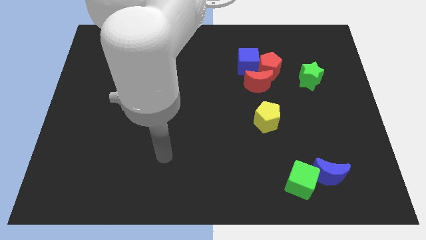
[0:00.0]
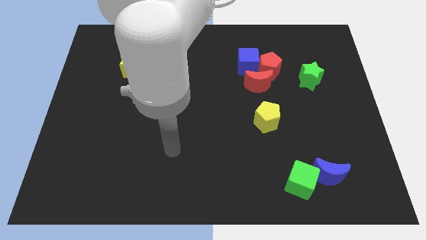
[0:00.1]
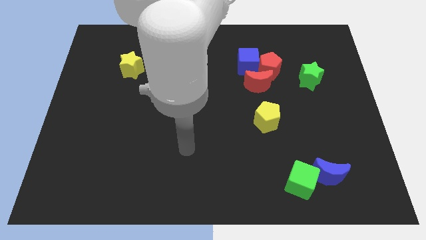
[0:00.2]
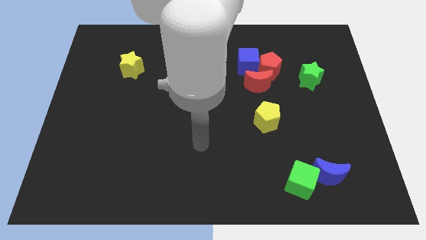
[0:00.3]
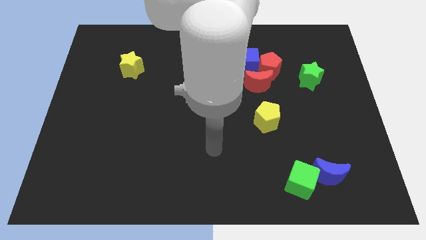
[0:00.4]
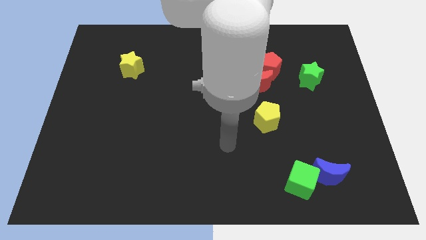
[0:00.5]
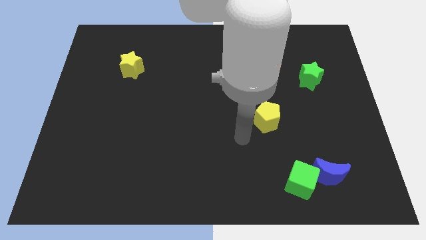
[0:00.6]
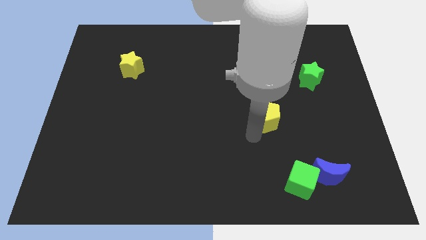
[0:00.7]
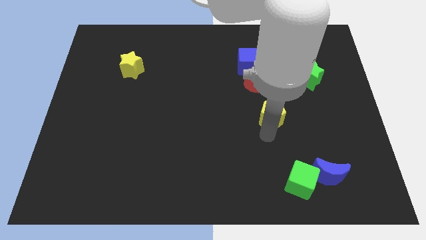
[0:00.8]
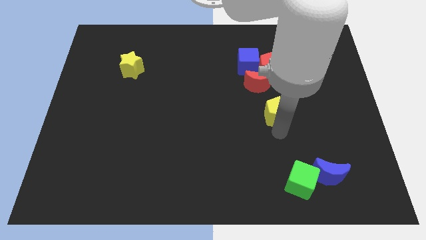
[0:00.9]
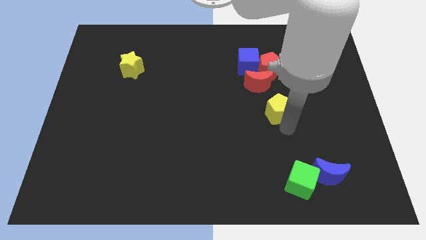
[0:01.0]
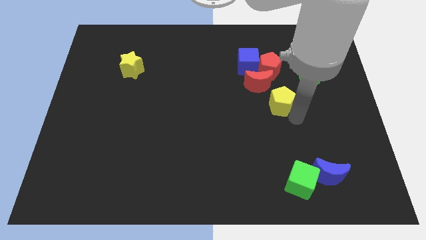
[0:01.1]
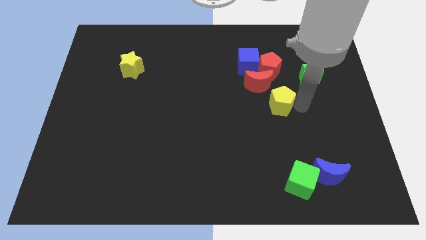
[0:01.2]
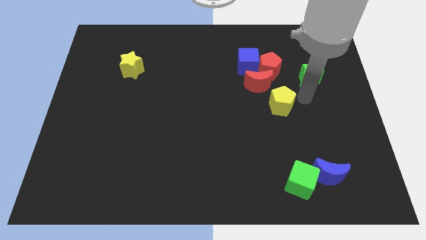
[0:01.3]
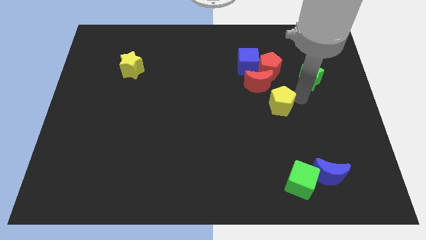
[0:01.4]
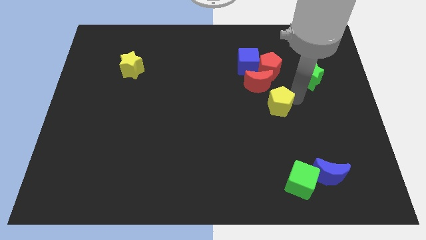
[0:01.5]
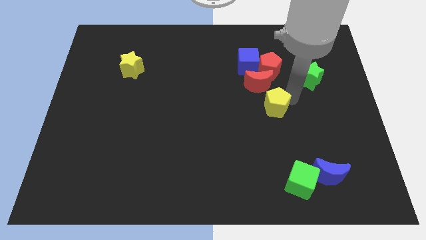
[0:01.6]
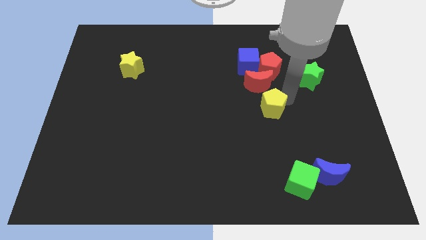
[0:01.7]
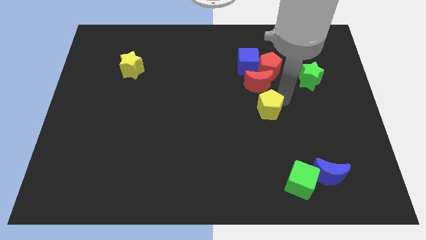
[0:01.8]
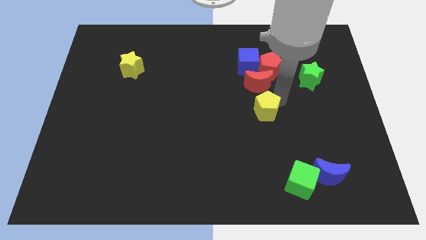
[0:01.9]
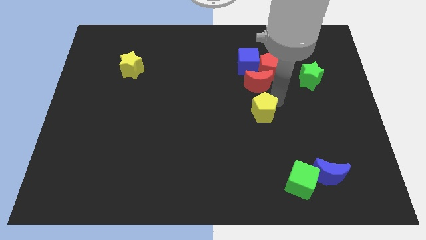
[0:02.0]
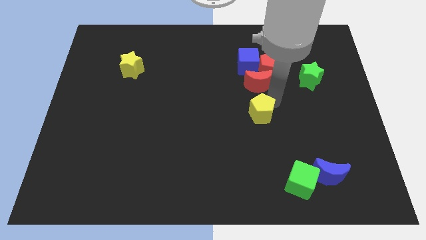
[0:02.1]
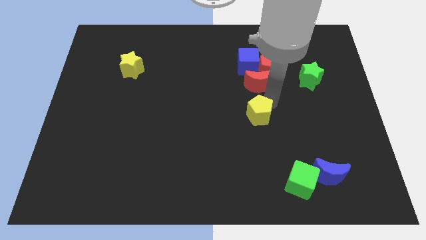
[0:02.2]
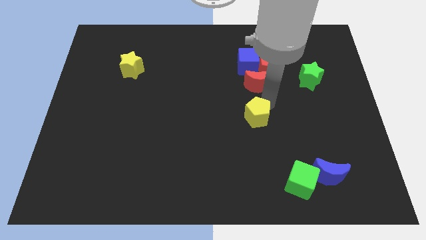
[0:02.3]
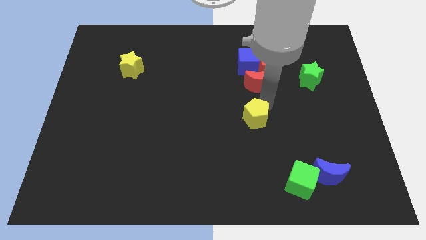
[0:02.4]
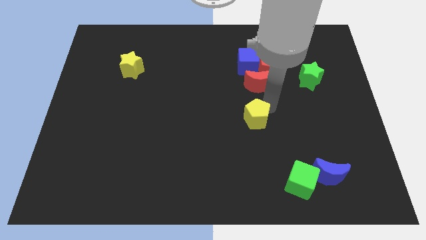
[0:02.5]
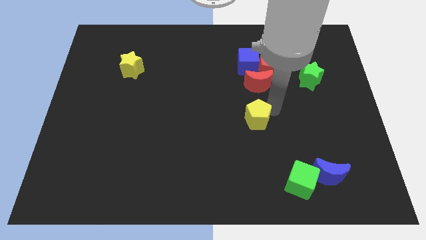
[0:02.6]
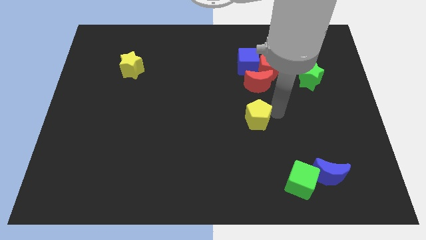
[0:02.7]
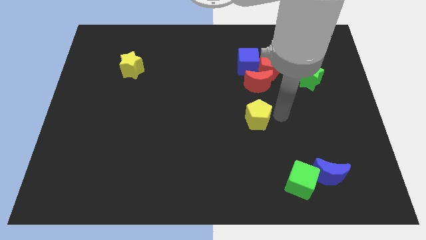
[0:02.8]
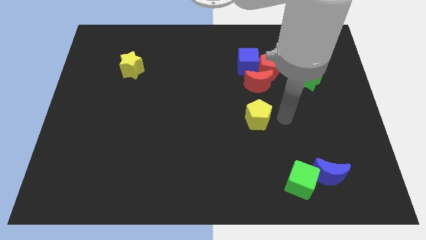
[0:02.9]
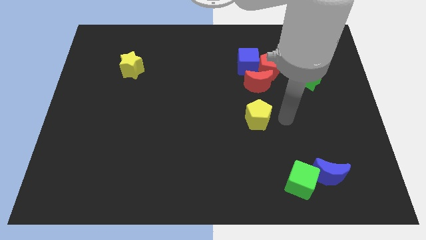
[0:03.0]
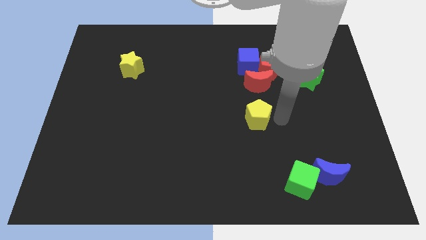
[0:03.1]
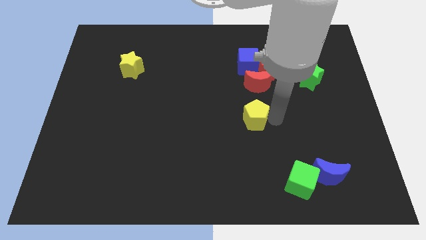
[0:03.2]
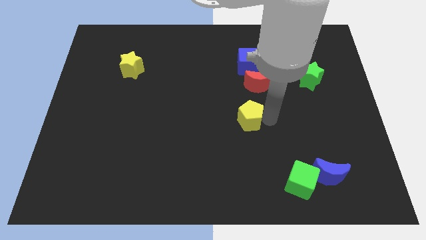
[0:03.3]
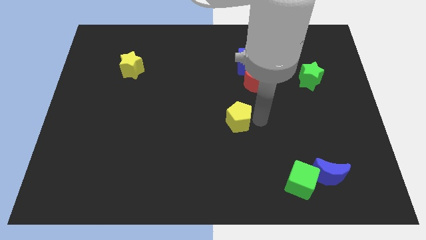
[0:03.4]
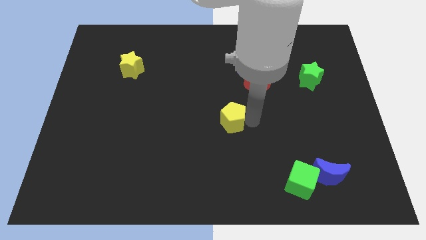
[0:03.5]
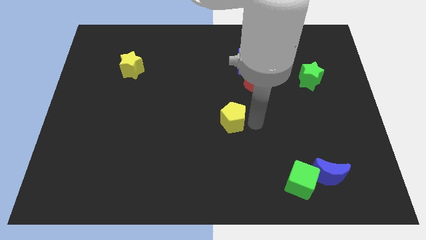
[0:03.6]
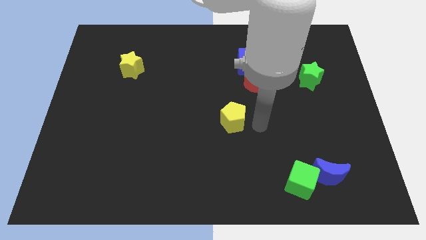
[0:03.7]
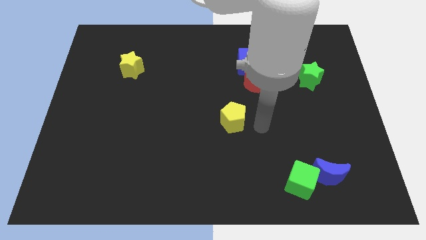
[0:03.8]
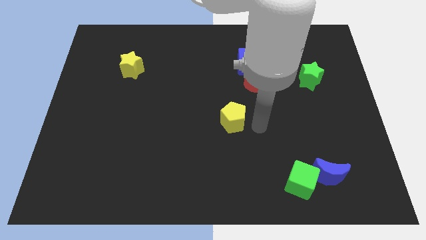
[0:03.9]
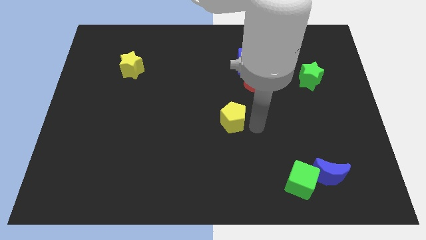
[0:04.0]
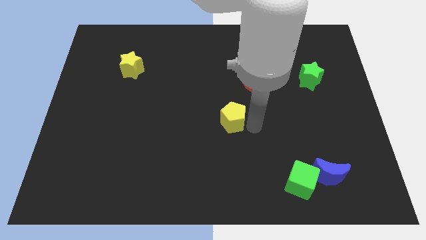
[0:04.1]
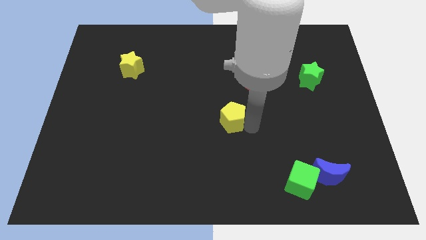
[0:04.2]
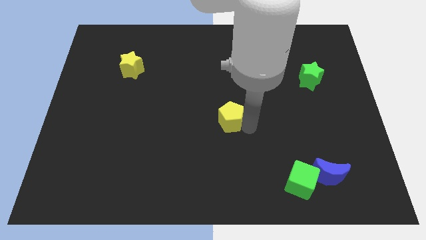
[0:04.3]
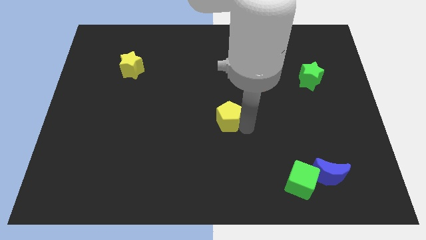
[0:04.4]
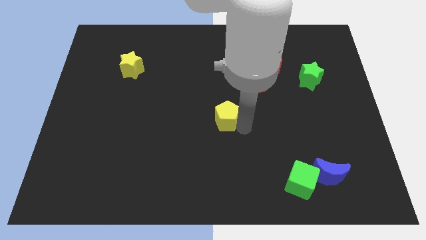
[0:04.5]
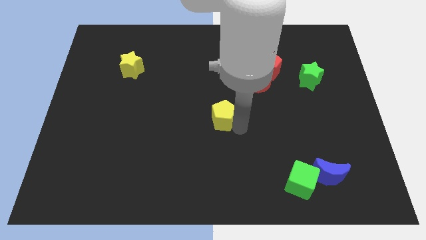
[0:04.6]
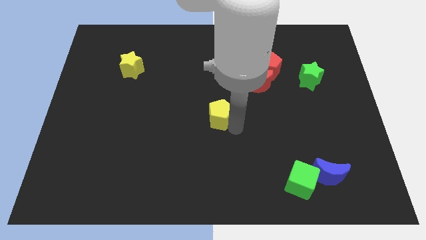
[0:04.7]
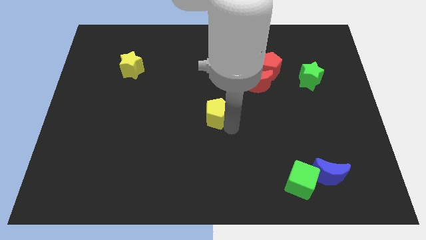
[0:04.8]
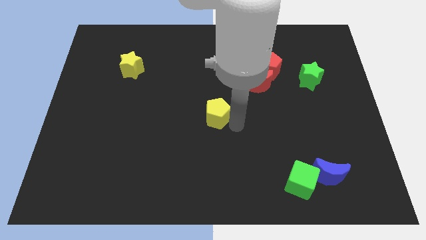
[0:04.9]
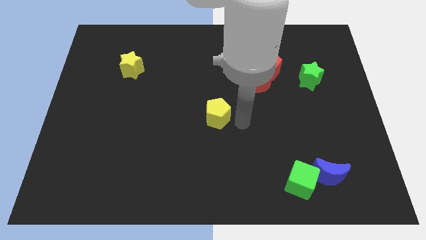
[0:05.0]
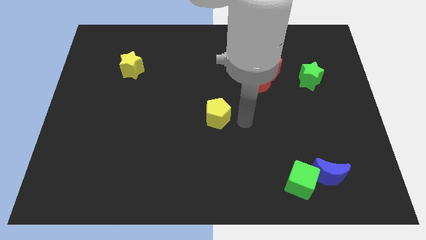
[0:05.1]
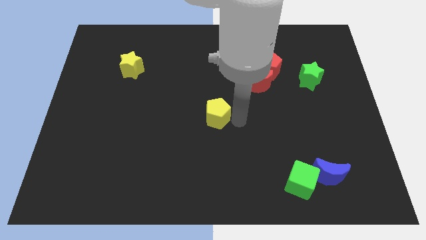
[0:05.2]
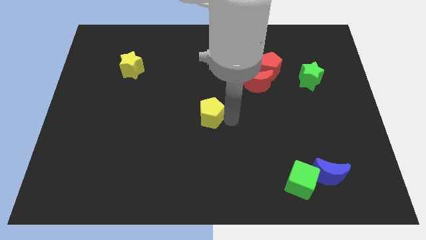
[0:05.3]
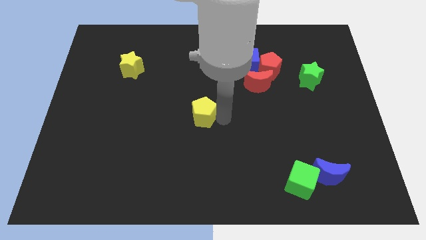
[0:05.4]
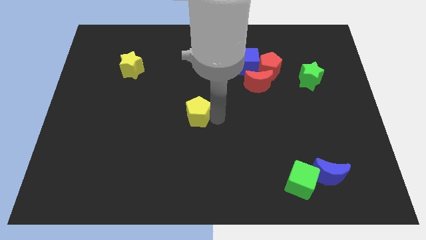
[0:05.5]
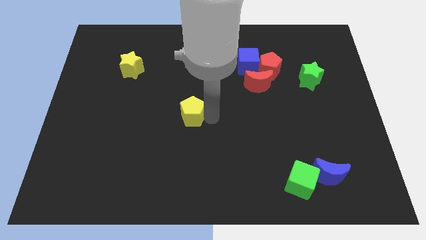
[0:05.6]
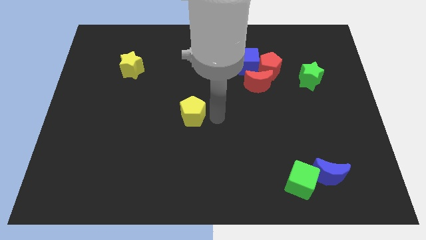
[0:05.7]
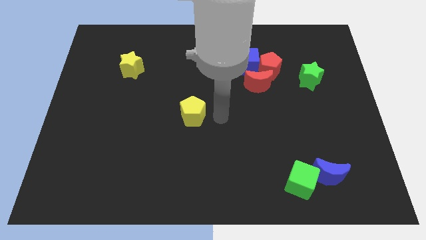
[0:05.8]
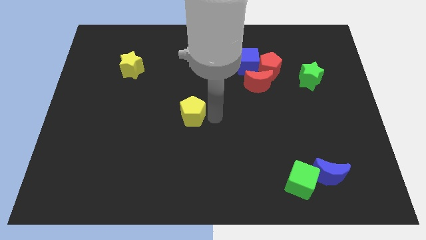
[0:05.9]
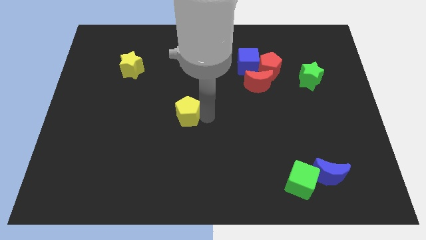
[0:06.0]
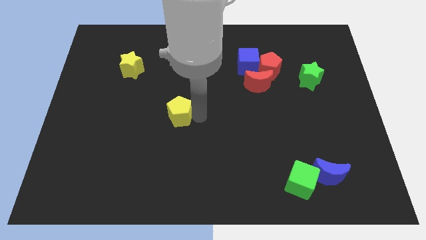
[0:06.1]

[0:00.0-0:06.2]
slide the yellow pentagon to the left

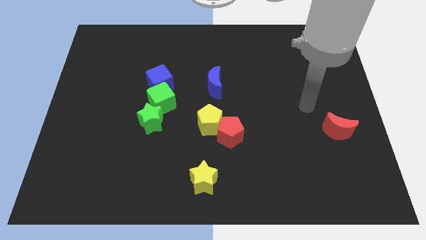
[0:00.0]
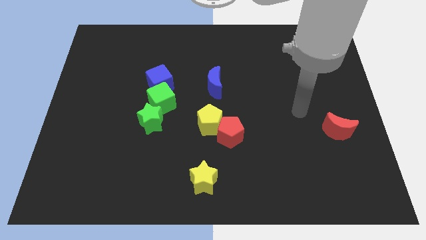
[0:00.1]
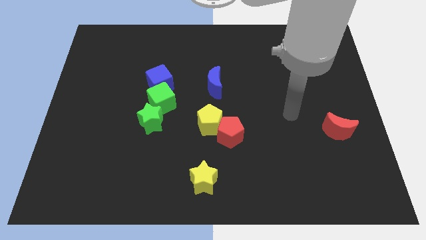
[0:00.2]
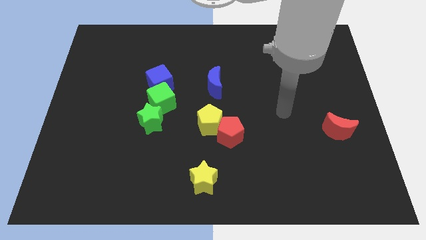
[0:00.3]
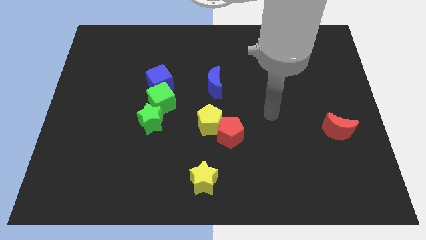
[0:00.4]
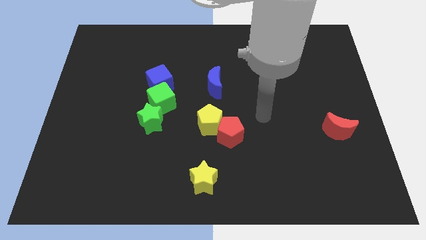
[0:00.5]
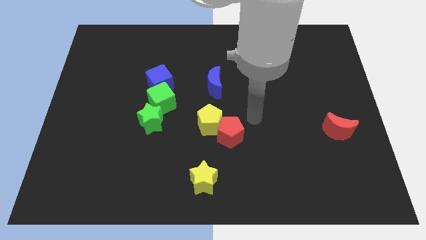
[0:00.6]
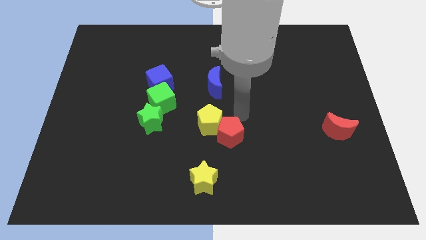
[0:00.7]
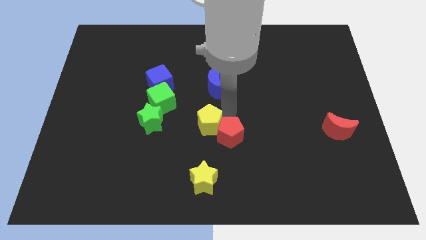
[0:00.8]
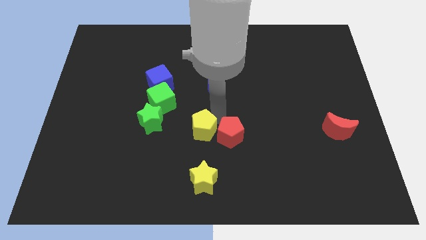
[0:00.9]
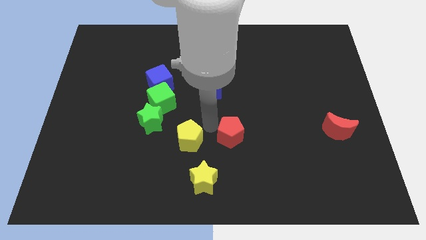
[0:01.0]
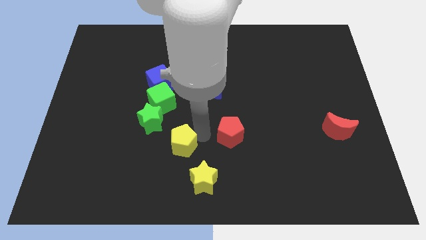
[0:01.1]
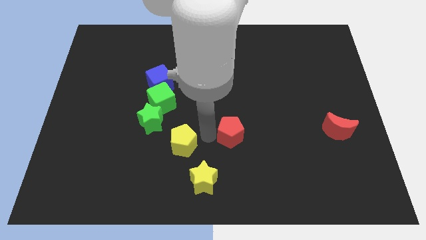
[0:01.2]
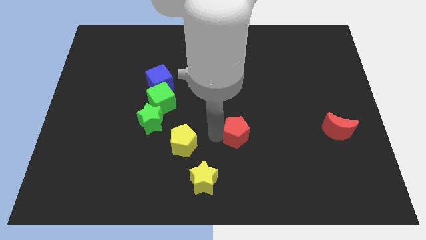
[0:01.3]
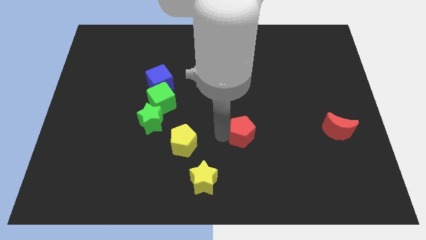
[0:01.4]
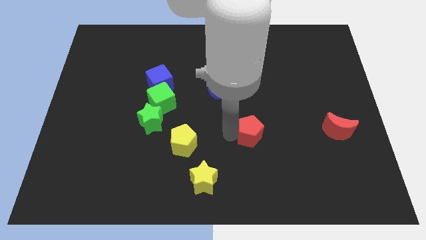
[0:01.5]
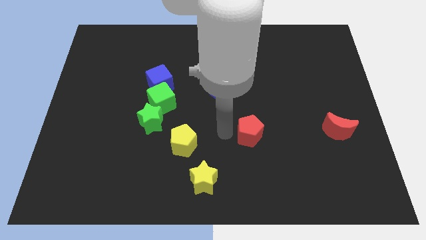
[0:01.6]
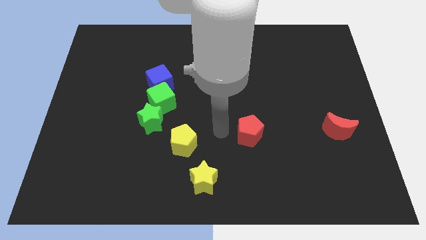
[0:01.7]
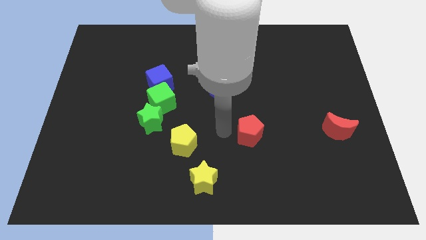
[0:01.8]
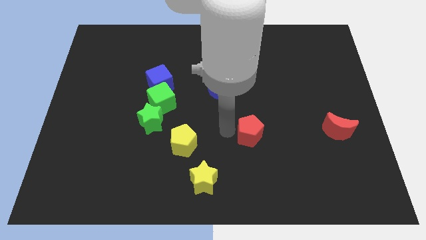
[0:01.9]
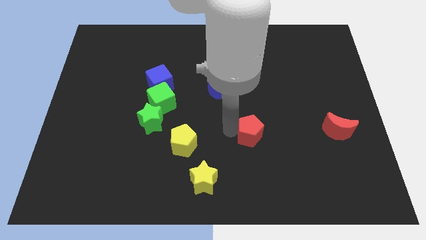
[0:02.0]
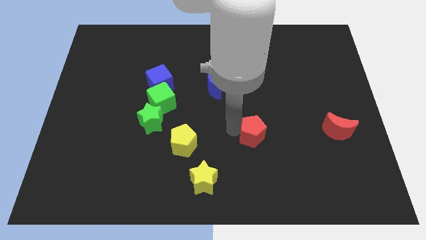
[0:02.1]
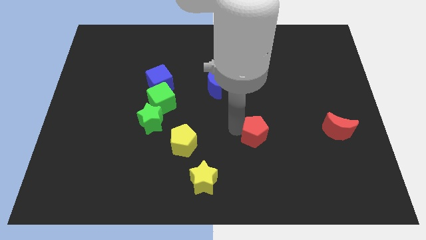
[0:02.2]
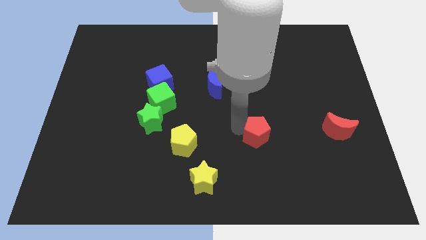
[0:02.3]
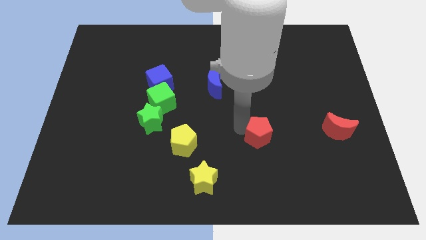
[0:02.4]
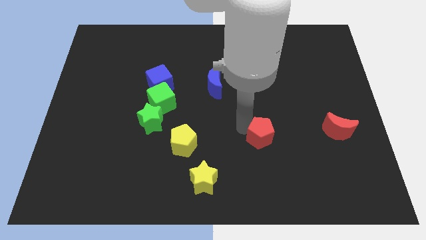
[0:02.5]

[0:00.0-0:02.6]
slightly move the red pentagon right
